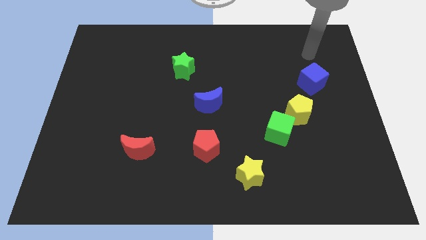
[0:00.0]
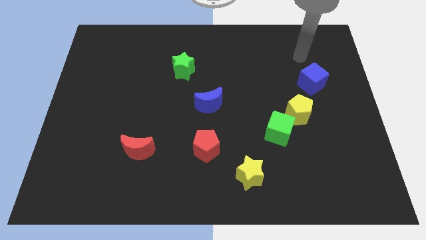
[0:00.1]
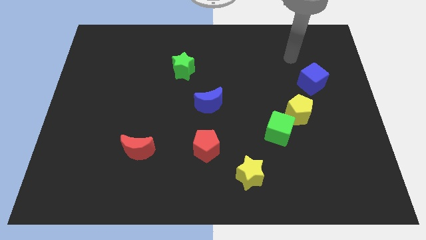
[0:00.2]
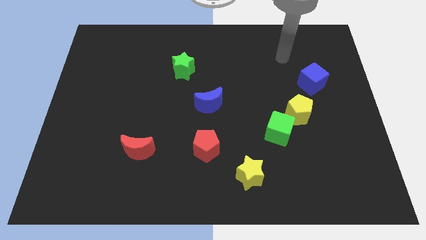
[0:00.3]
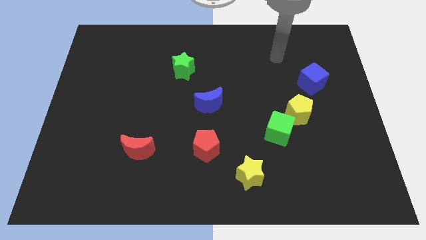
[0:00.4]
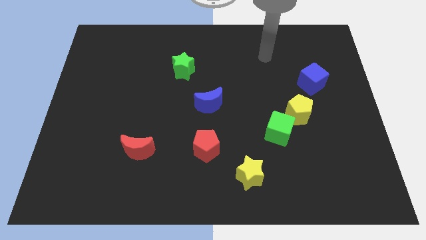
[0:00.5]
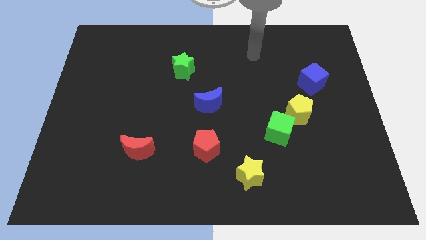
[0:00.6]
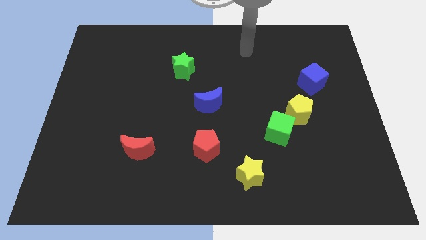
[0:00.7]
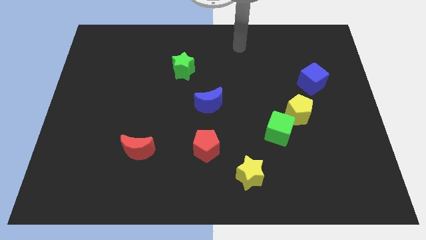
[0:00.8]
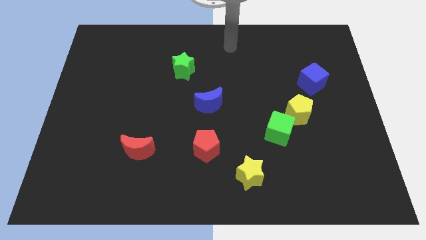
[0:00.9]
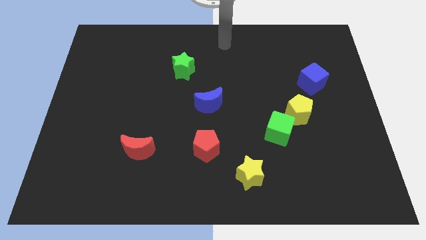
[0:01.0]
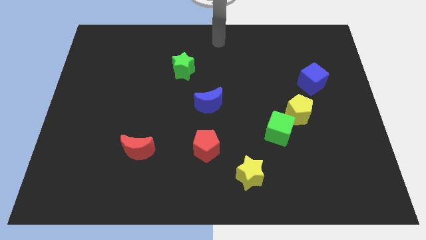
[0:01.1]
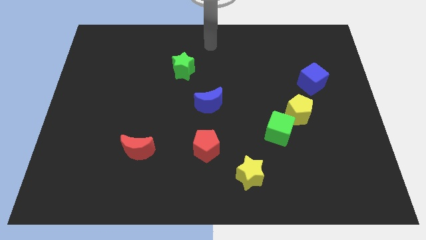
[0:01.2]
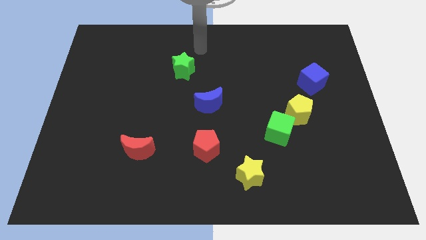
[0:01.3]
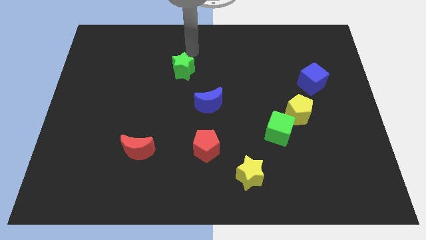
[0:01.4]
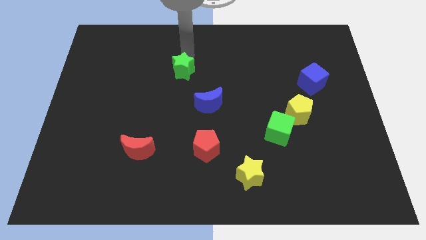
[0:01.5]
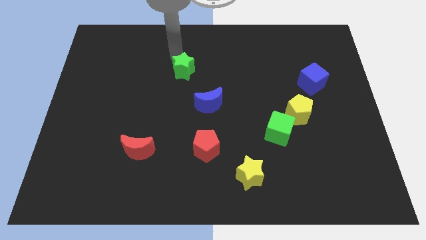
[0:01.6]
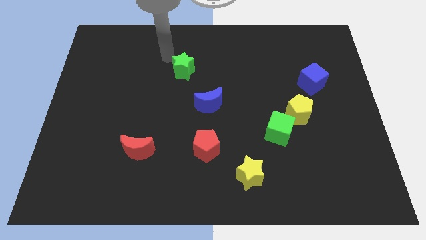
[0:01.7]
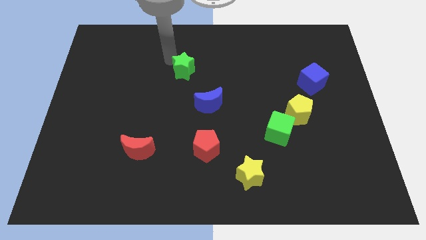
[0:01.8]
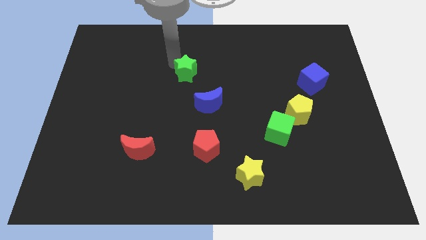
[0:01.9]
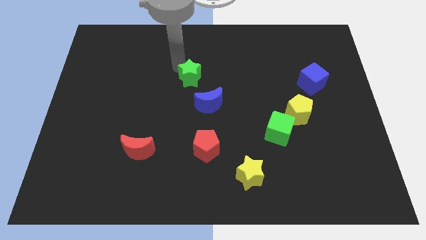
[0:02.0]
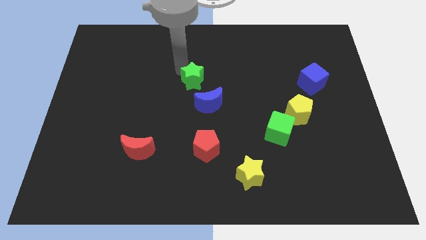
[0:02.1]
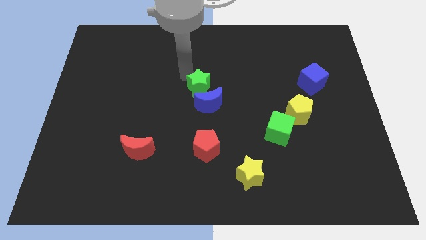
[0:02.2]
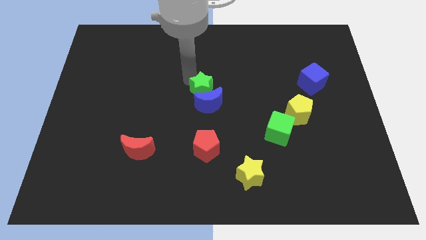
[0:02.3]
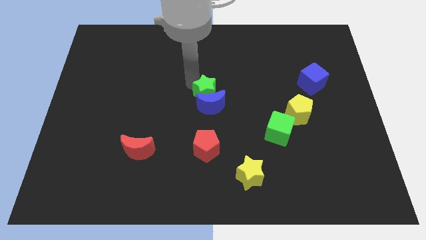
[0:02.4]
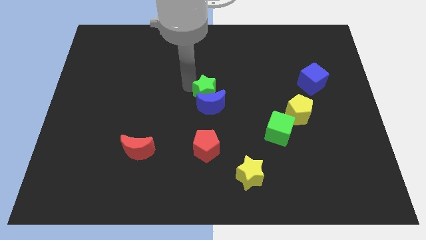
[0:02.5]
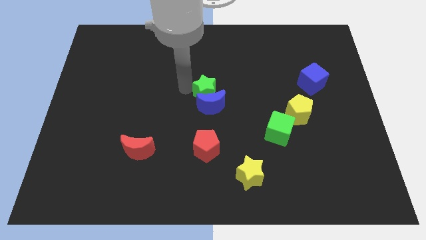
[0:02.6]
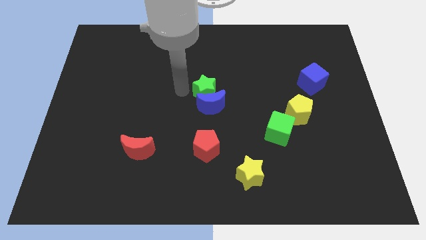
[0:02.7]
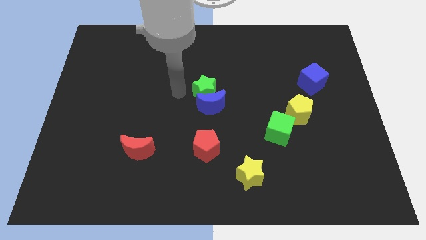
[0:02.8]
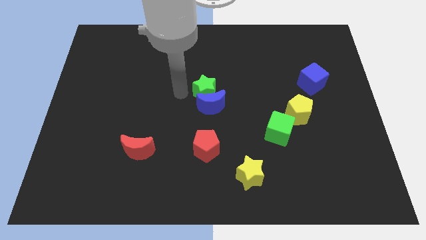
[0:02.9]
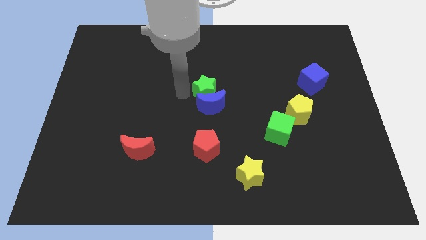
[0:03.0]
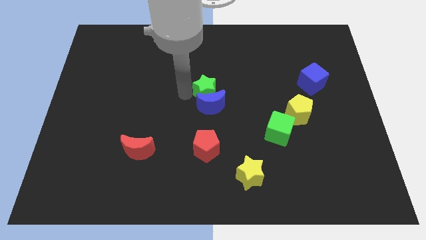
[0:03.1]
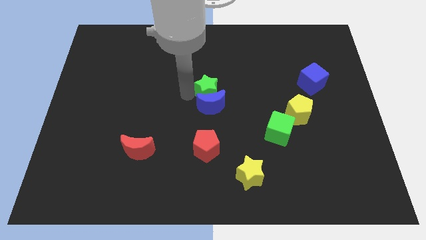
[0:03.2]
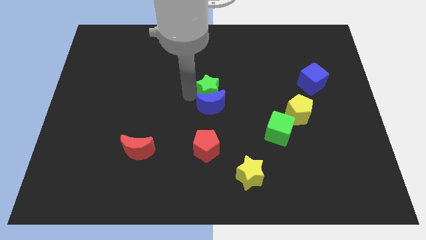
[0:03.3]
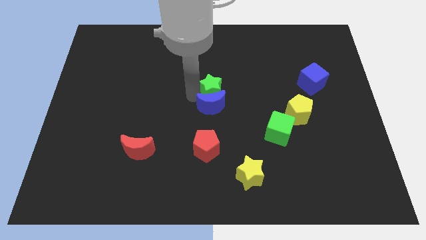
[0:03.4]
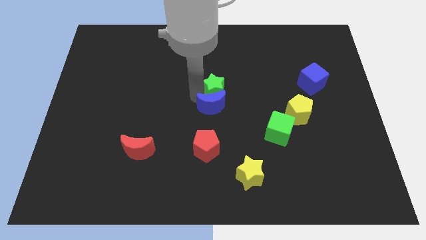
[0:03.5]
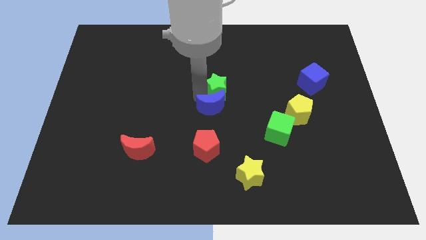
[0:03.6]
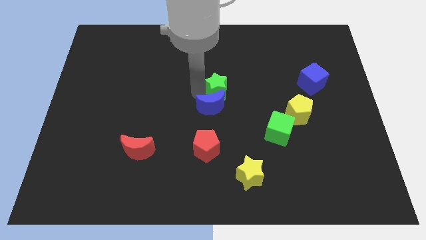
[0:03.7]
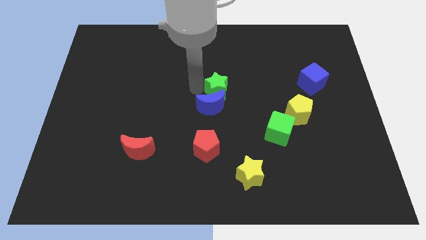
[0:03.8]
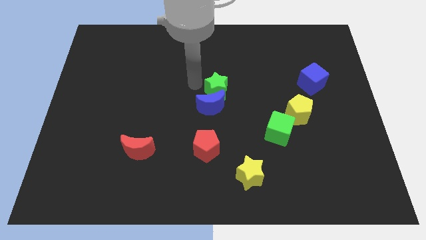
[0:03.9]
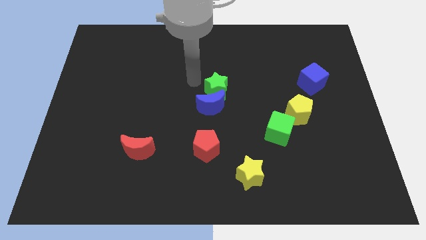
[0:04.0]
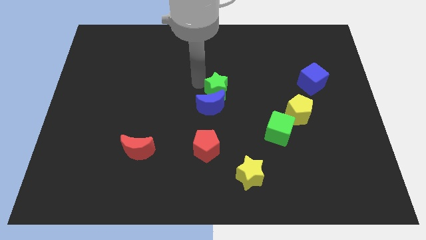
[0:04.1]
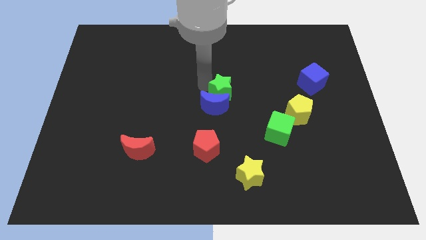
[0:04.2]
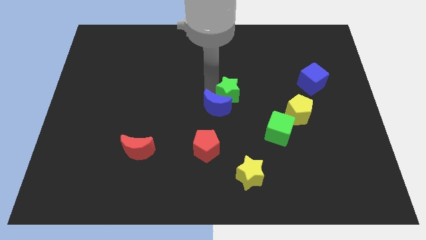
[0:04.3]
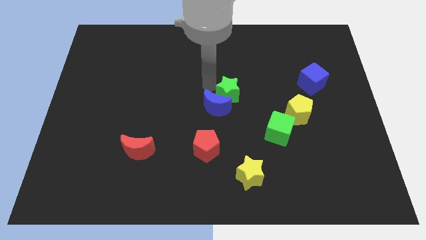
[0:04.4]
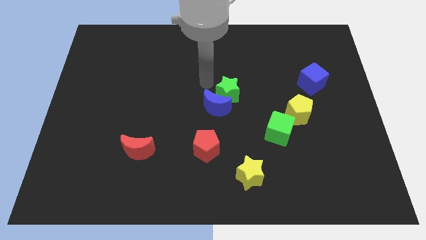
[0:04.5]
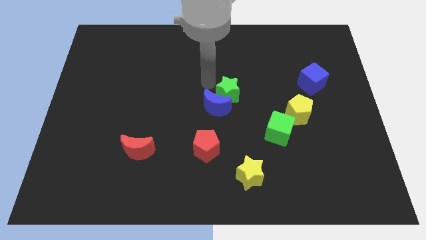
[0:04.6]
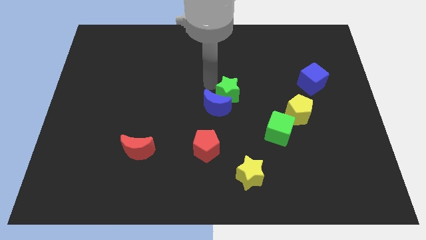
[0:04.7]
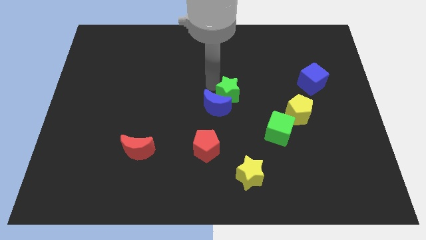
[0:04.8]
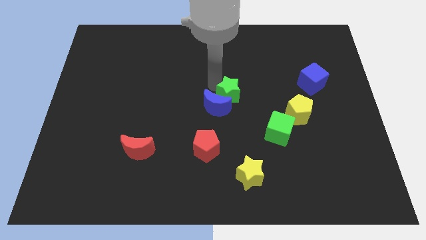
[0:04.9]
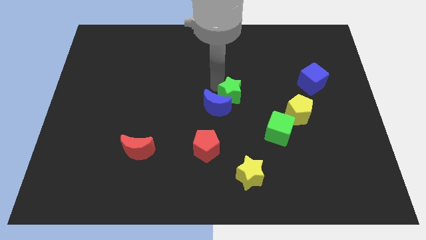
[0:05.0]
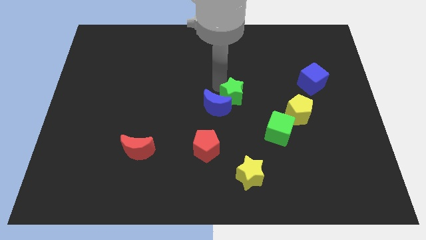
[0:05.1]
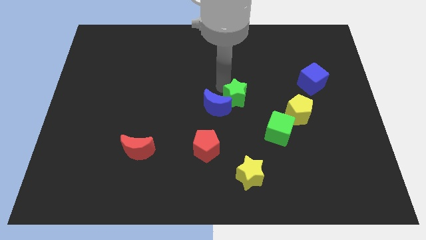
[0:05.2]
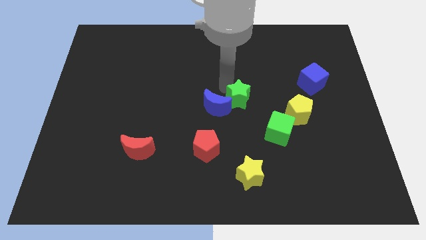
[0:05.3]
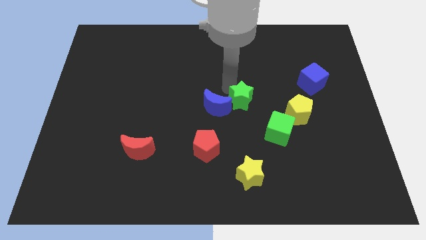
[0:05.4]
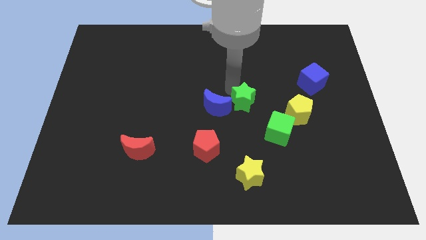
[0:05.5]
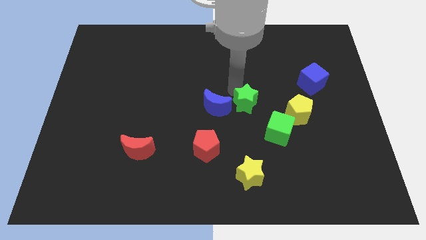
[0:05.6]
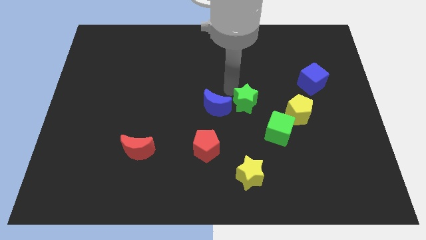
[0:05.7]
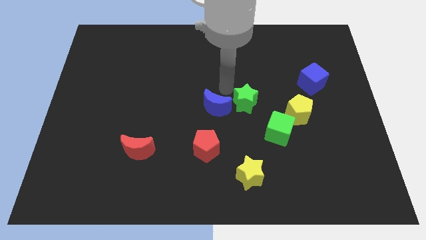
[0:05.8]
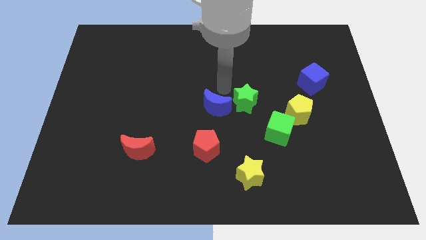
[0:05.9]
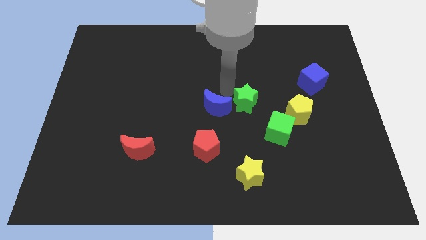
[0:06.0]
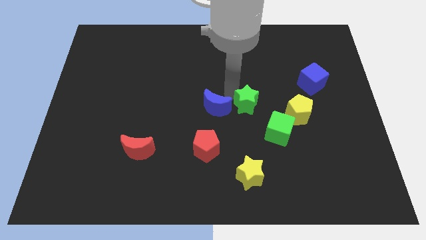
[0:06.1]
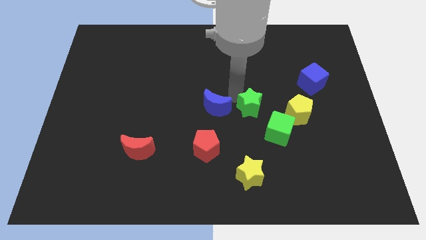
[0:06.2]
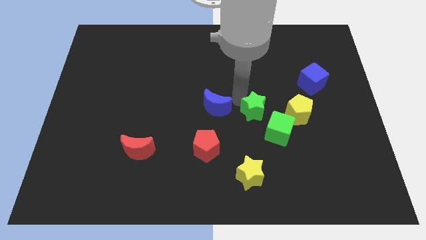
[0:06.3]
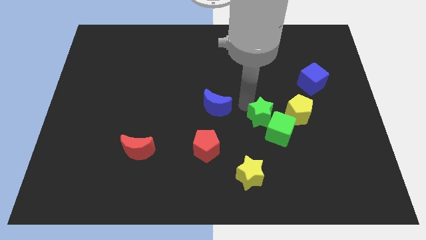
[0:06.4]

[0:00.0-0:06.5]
put the green star close to the green cube

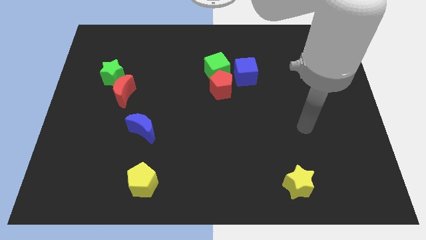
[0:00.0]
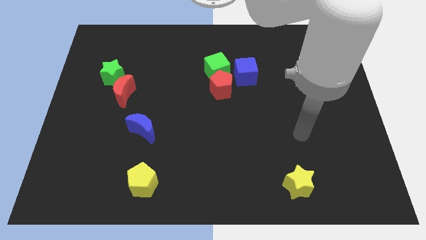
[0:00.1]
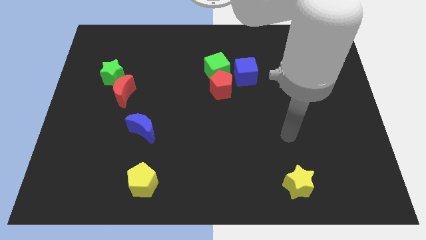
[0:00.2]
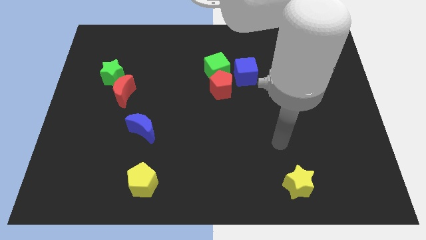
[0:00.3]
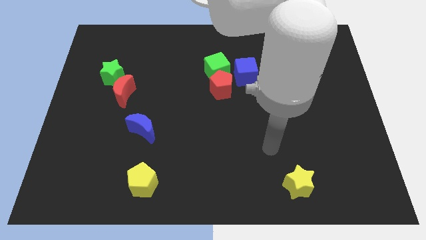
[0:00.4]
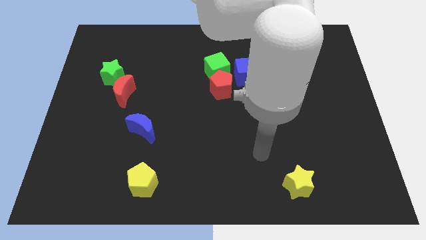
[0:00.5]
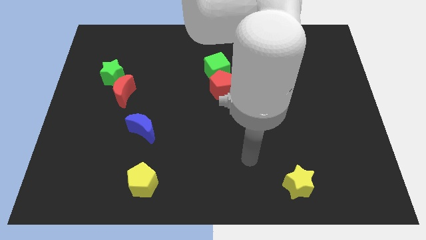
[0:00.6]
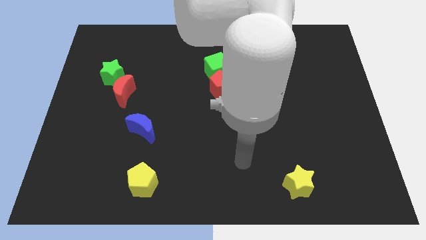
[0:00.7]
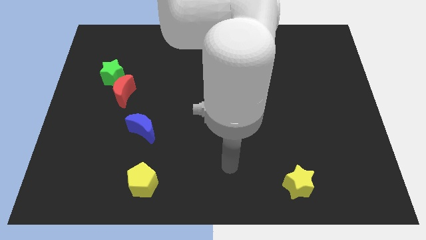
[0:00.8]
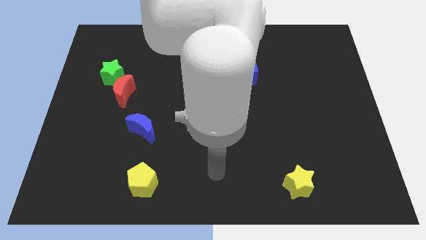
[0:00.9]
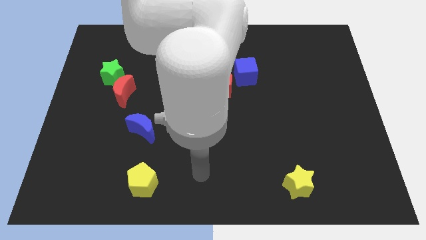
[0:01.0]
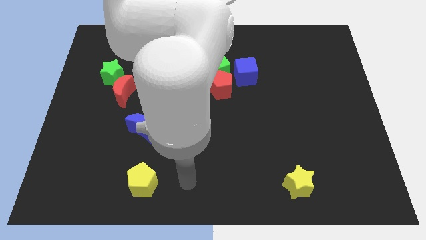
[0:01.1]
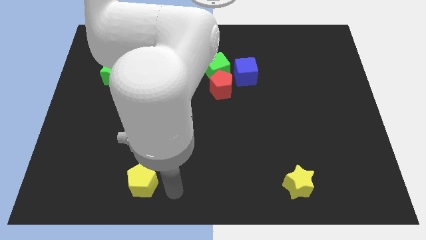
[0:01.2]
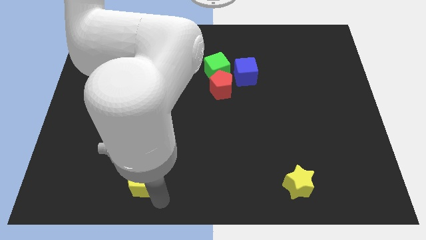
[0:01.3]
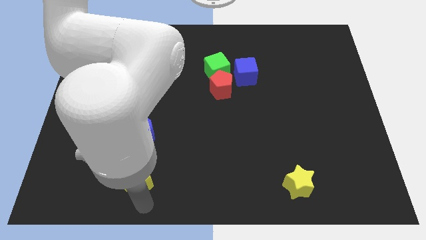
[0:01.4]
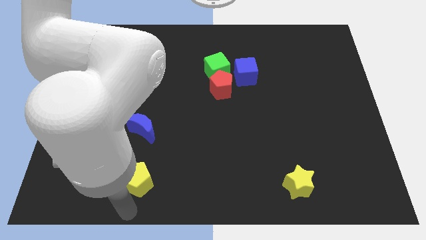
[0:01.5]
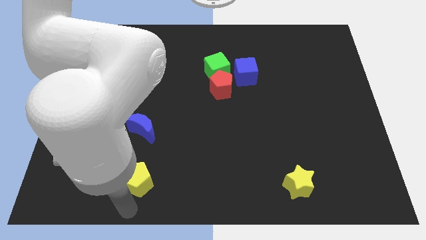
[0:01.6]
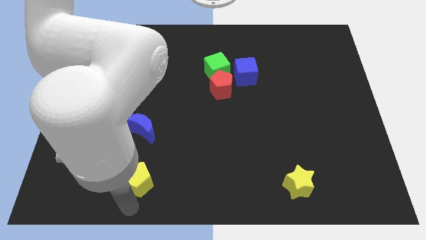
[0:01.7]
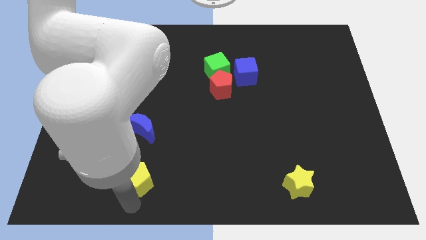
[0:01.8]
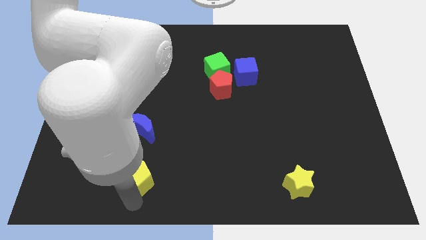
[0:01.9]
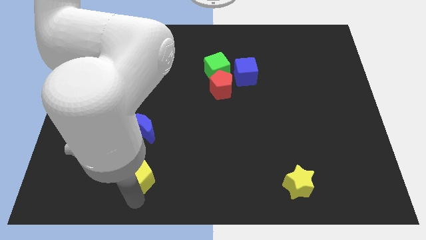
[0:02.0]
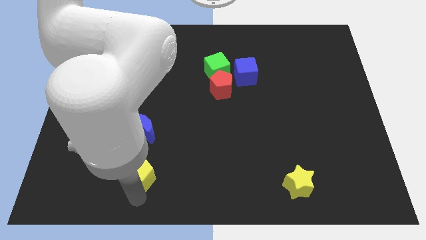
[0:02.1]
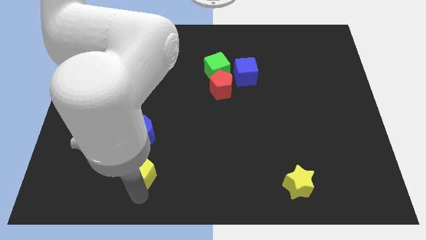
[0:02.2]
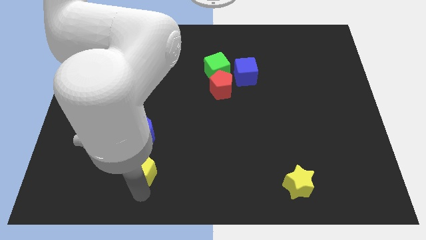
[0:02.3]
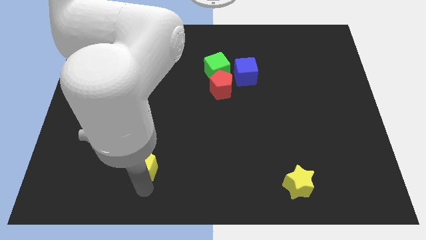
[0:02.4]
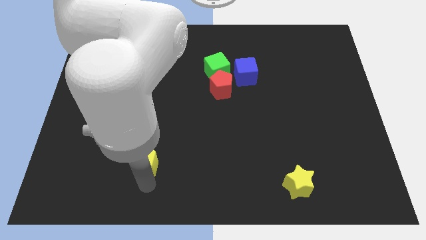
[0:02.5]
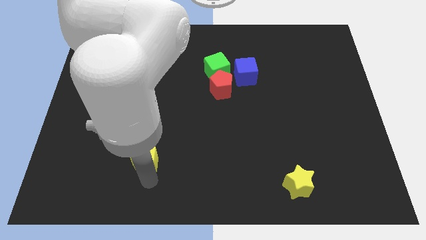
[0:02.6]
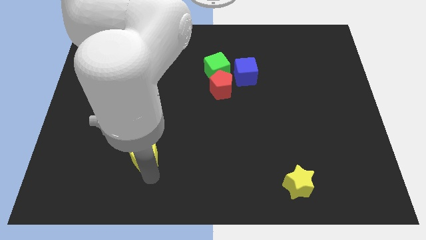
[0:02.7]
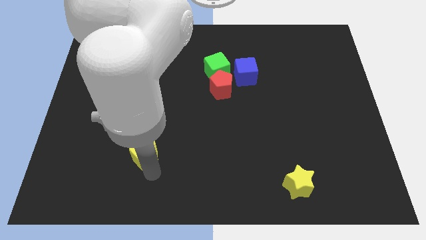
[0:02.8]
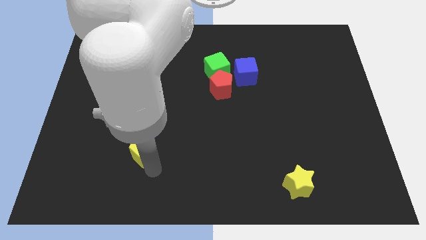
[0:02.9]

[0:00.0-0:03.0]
slide the yellow pentagon towards the blue moon
